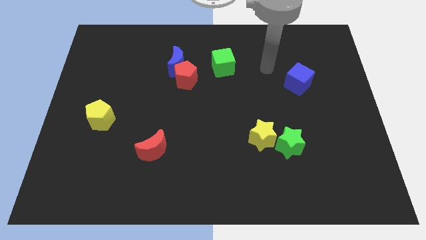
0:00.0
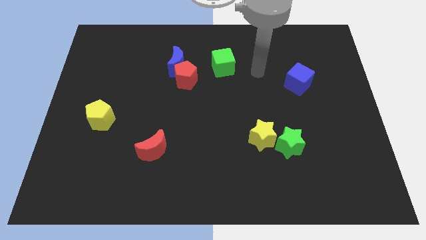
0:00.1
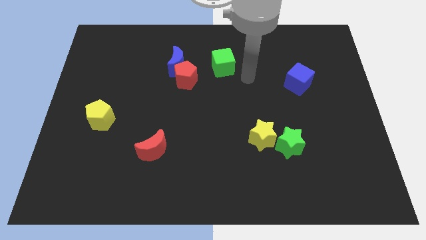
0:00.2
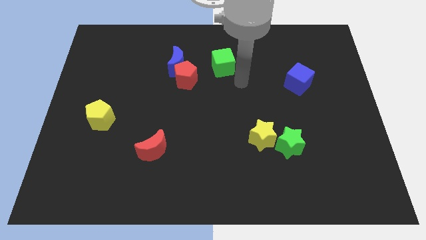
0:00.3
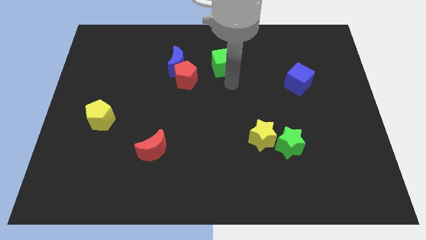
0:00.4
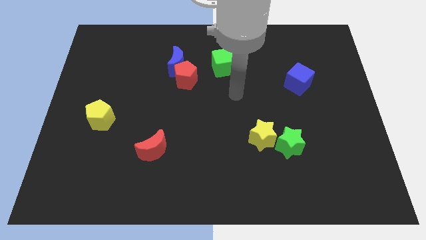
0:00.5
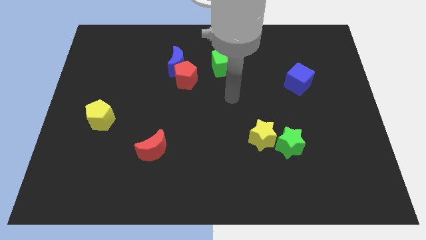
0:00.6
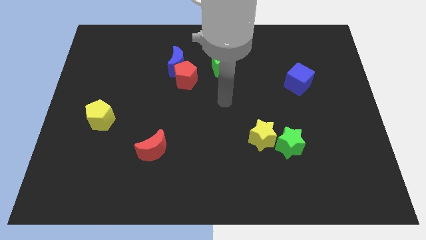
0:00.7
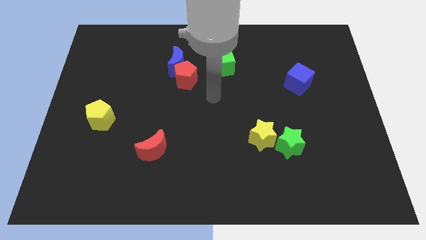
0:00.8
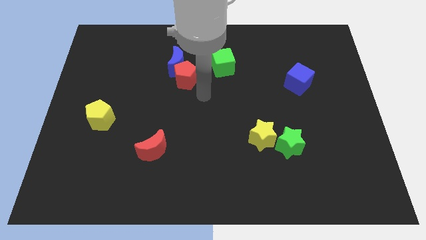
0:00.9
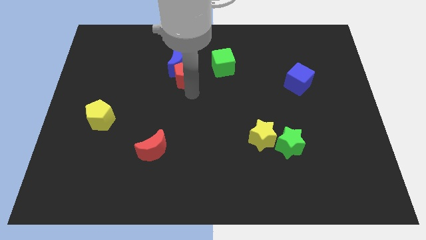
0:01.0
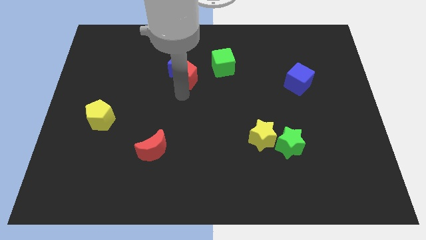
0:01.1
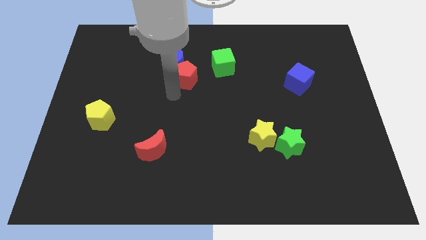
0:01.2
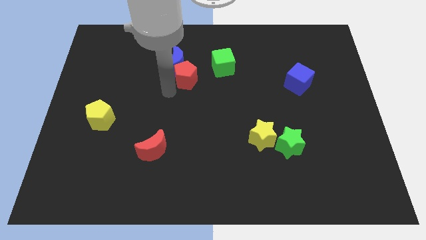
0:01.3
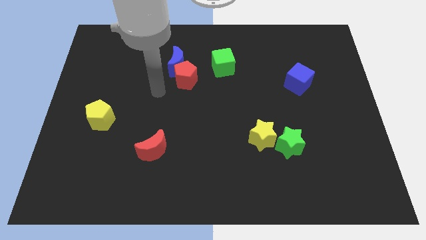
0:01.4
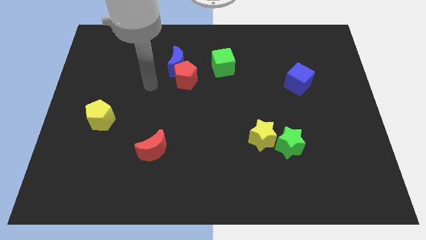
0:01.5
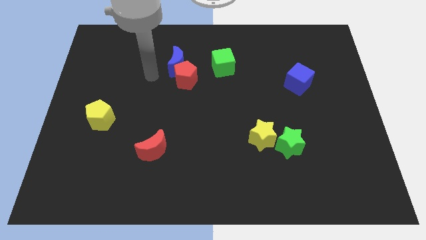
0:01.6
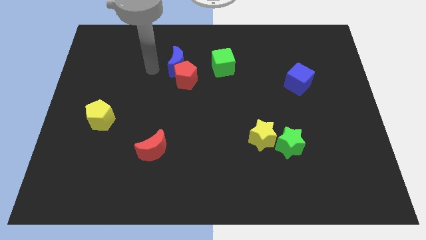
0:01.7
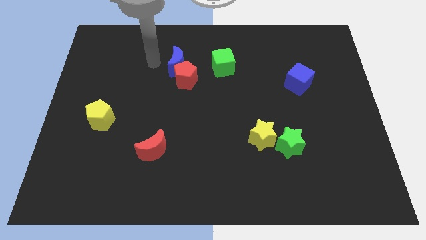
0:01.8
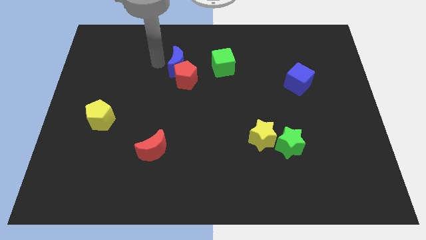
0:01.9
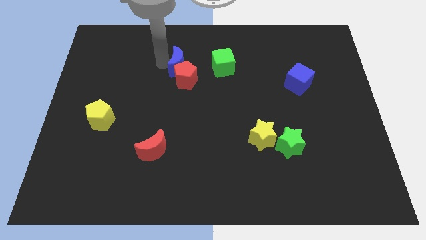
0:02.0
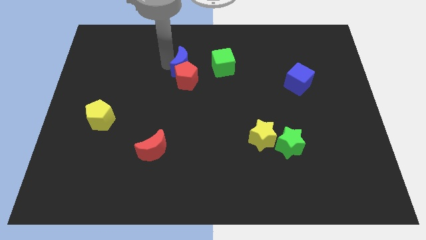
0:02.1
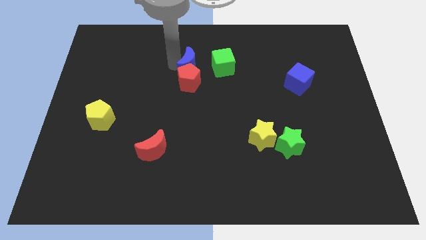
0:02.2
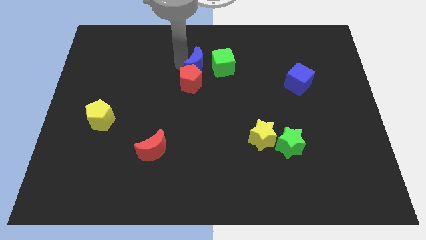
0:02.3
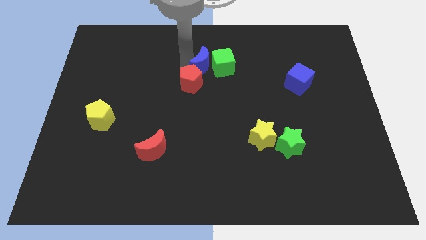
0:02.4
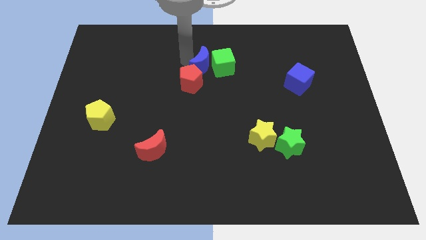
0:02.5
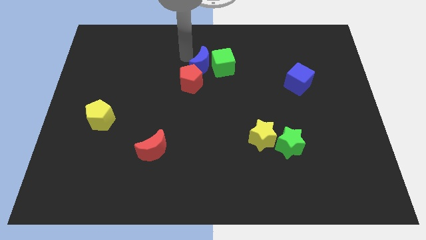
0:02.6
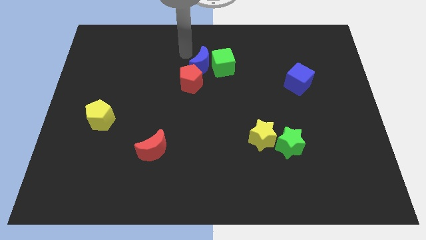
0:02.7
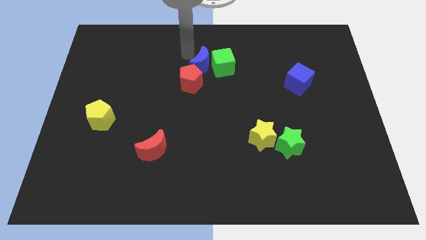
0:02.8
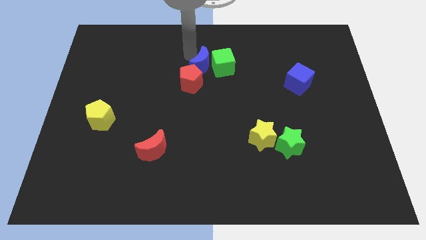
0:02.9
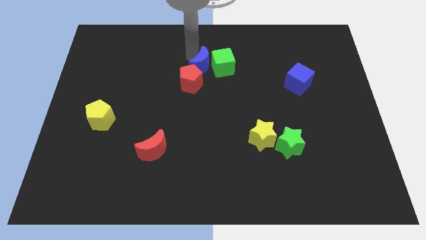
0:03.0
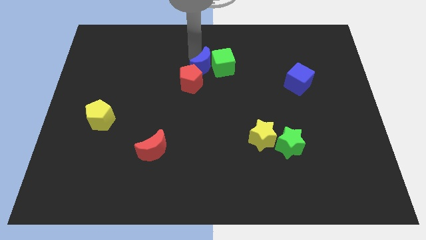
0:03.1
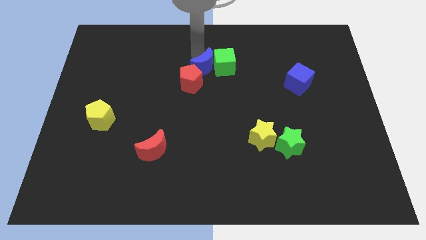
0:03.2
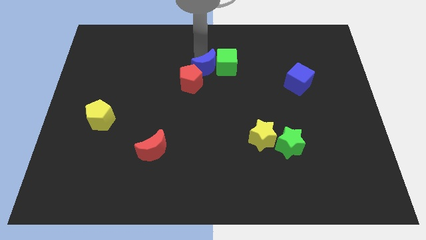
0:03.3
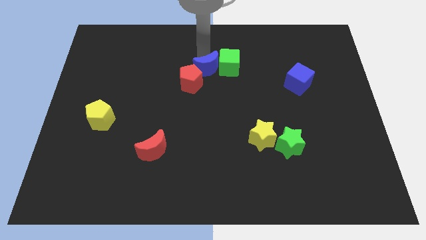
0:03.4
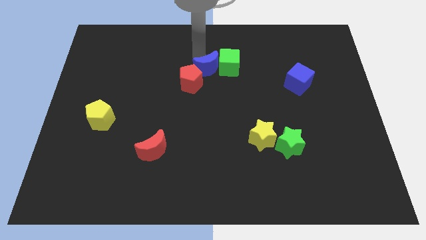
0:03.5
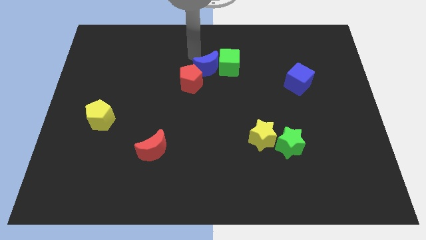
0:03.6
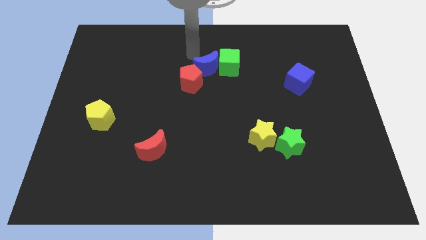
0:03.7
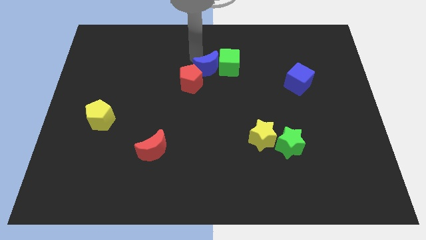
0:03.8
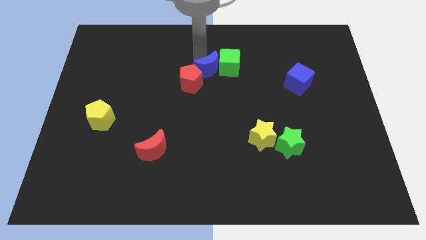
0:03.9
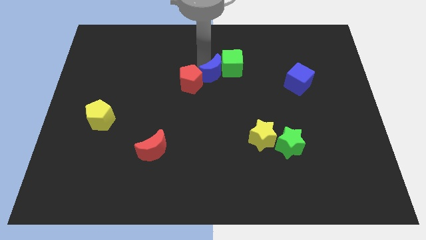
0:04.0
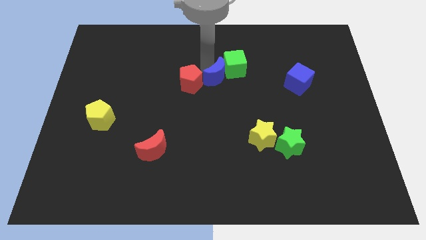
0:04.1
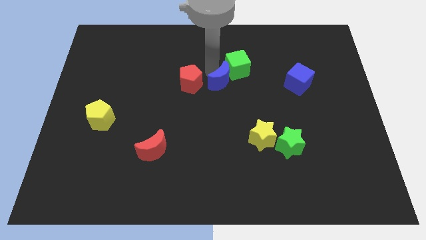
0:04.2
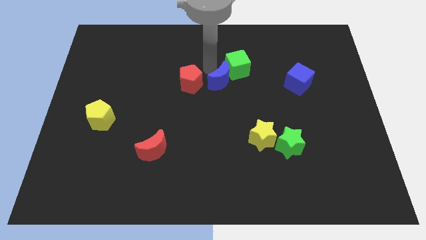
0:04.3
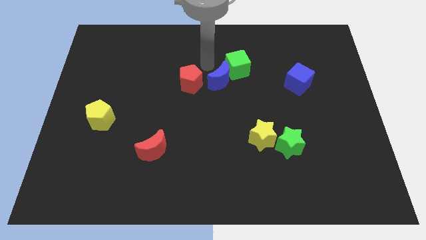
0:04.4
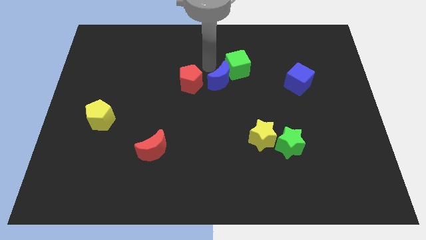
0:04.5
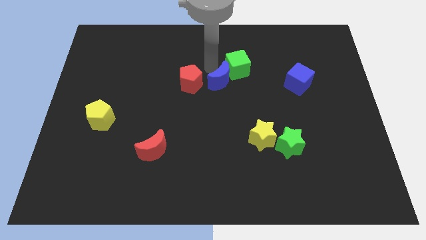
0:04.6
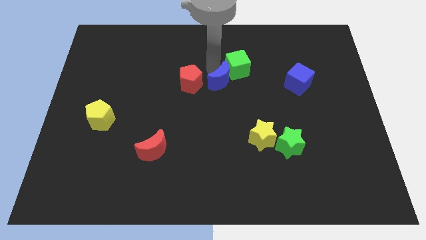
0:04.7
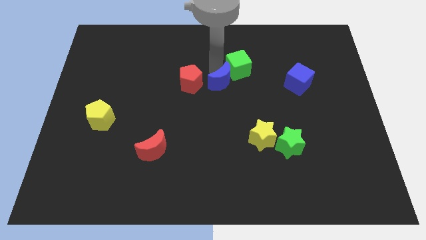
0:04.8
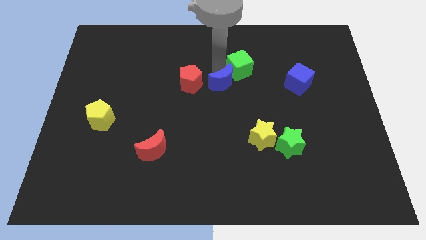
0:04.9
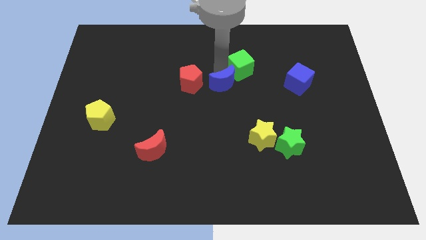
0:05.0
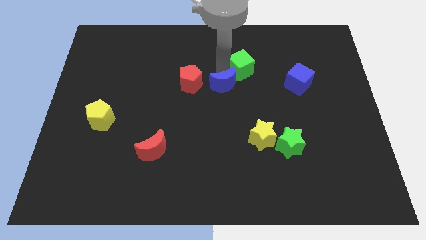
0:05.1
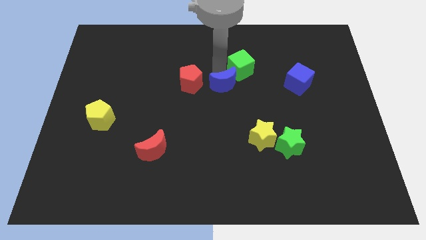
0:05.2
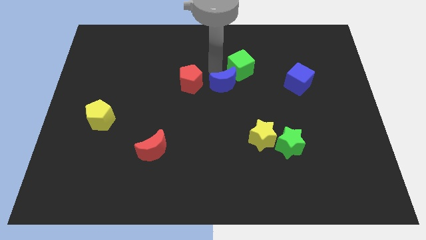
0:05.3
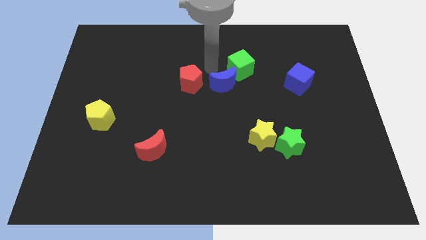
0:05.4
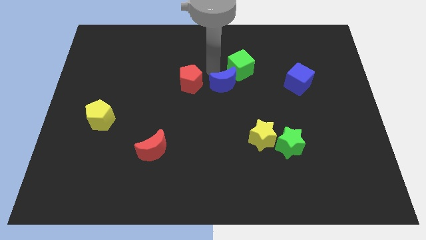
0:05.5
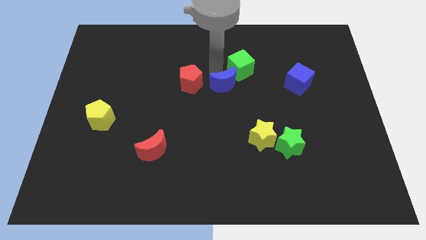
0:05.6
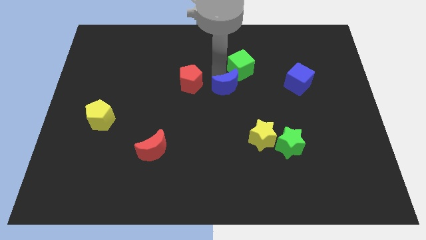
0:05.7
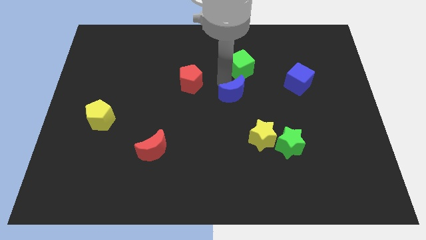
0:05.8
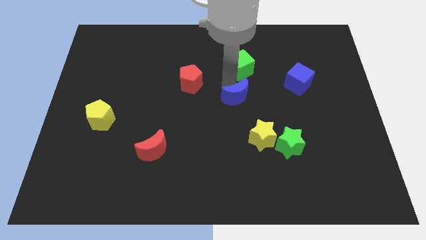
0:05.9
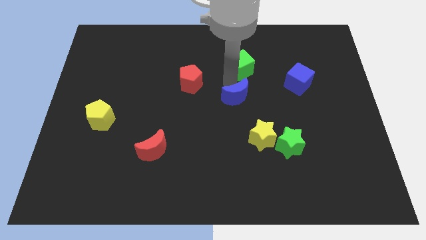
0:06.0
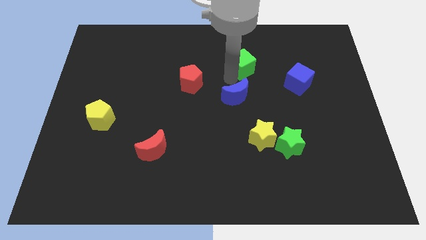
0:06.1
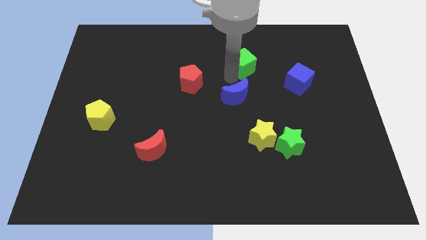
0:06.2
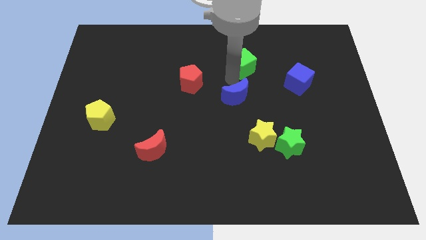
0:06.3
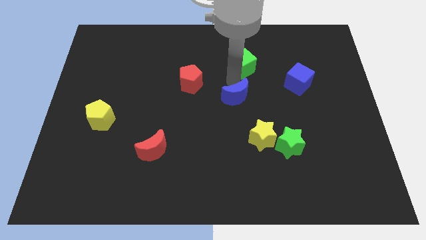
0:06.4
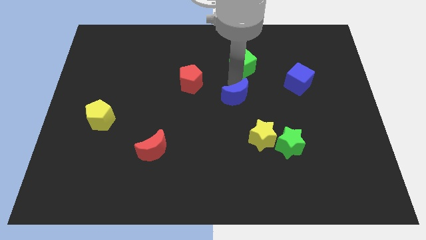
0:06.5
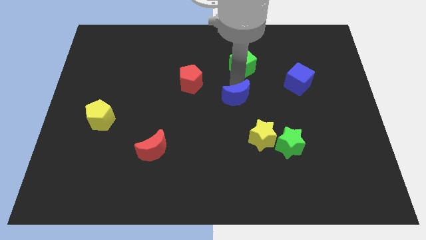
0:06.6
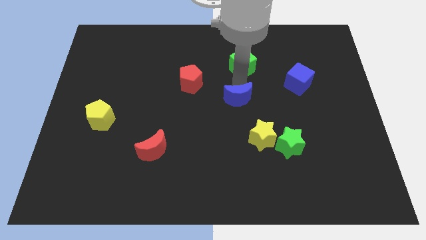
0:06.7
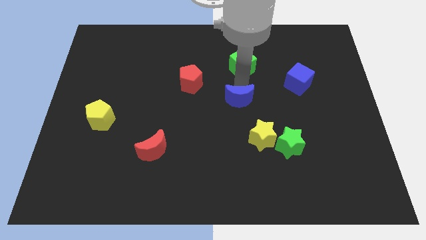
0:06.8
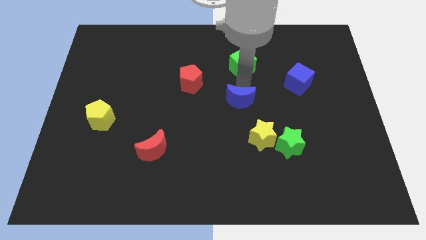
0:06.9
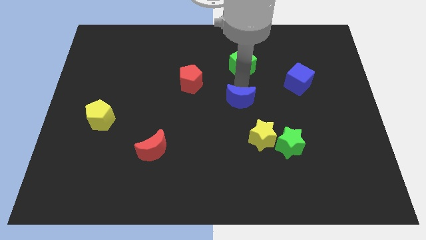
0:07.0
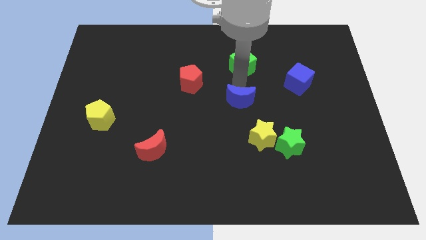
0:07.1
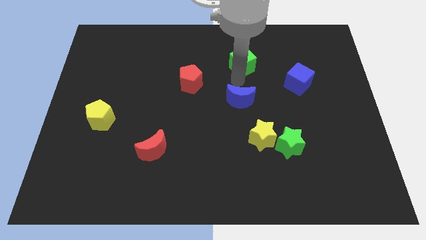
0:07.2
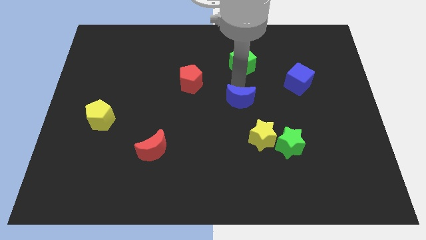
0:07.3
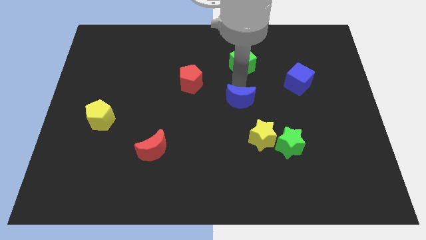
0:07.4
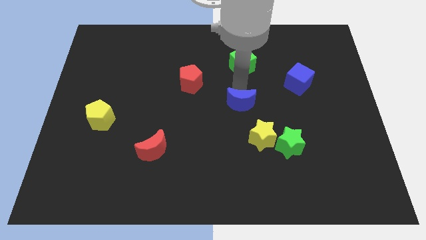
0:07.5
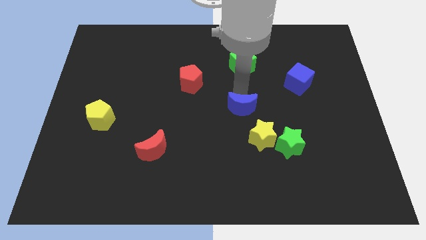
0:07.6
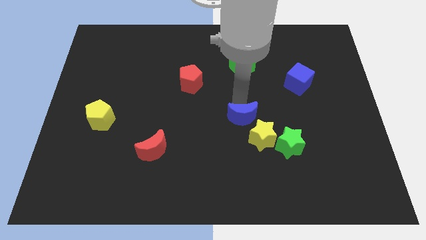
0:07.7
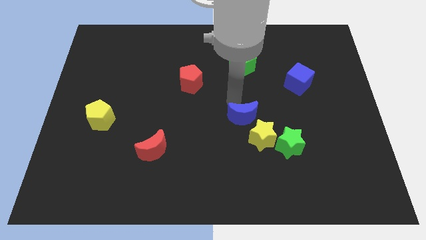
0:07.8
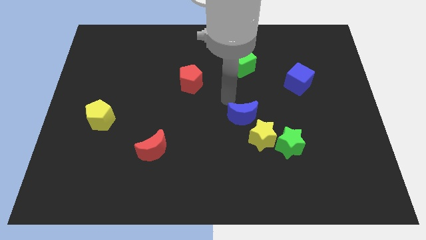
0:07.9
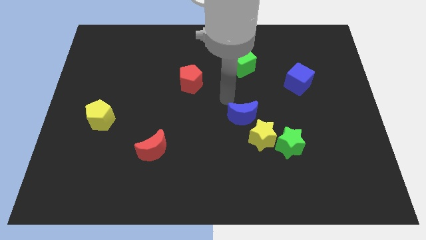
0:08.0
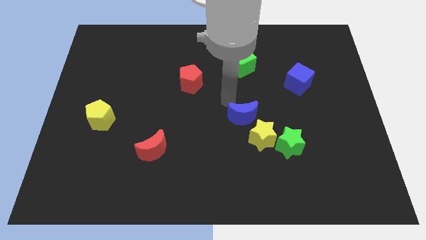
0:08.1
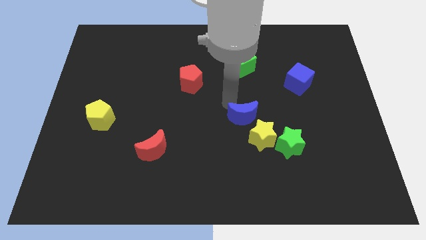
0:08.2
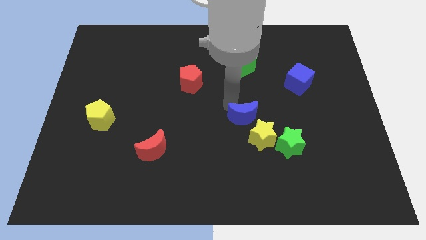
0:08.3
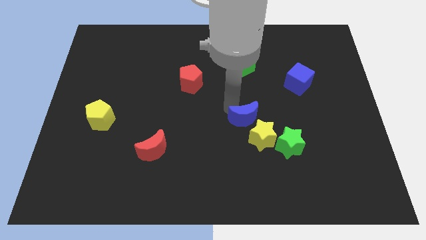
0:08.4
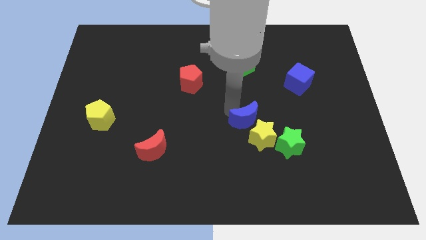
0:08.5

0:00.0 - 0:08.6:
push the blue moon to the yellow star
